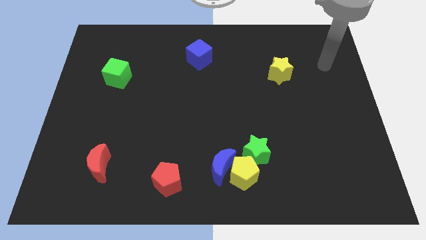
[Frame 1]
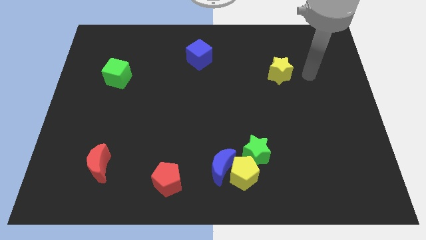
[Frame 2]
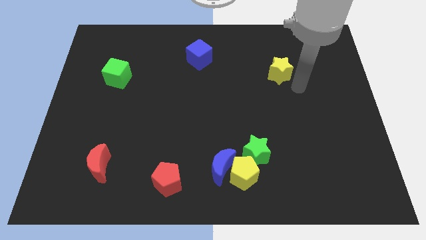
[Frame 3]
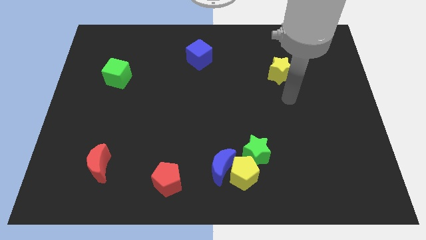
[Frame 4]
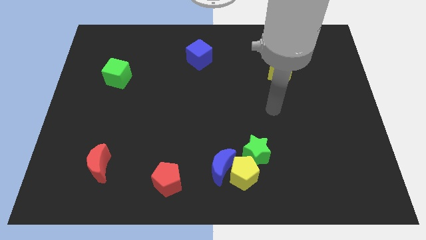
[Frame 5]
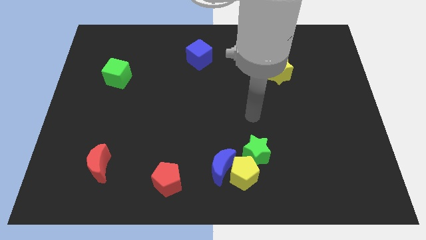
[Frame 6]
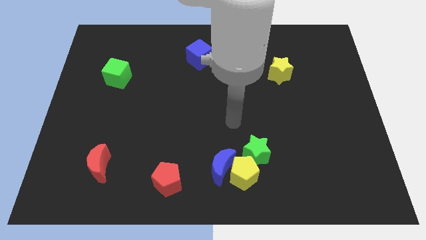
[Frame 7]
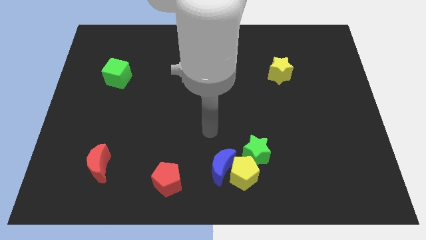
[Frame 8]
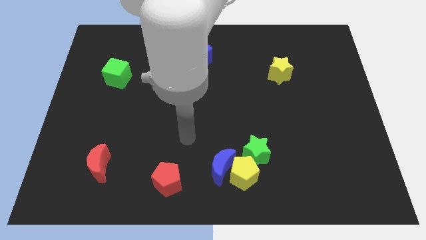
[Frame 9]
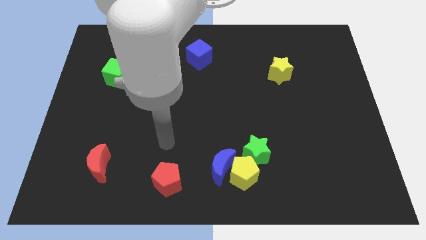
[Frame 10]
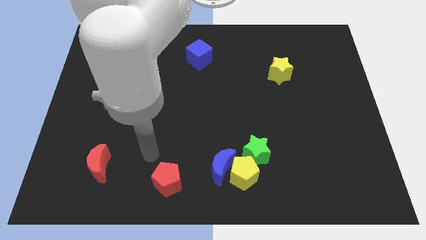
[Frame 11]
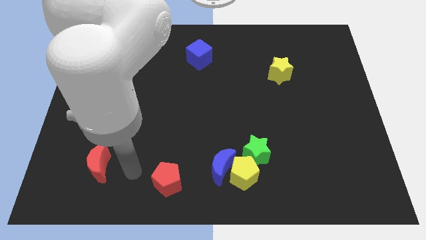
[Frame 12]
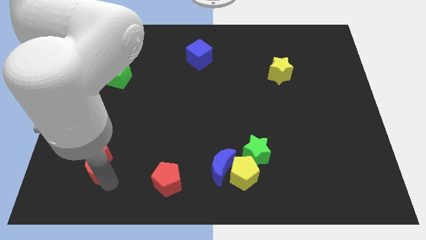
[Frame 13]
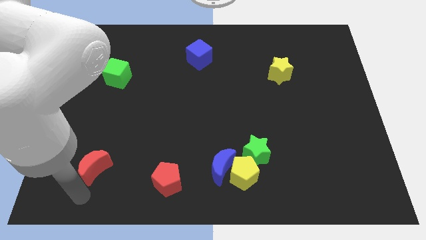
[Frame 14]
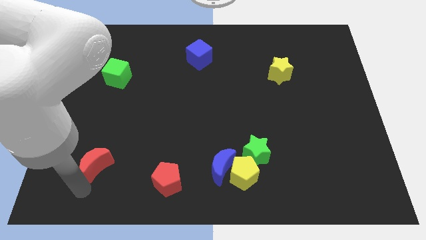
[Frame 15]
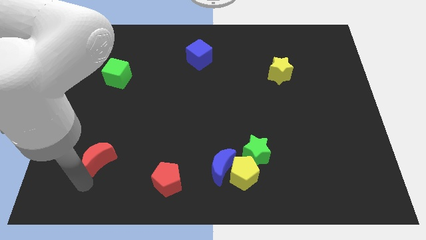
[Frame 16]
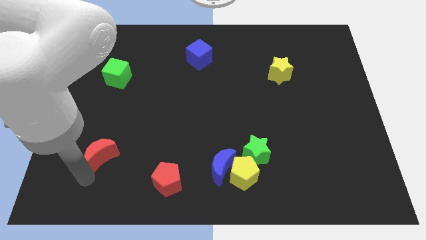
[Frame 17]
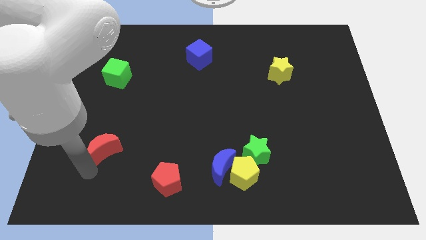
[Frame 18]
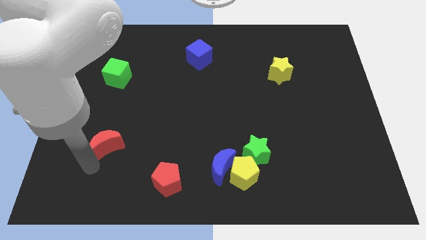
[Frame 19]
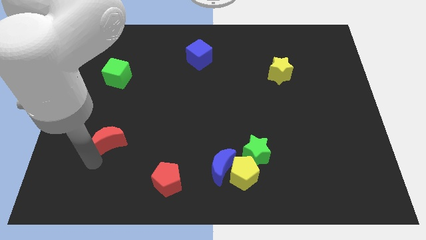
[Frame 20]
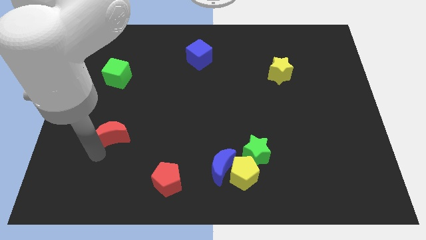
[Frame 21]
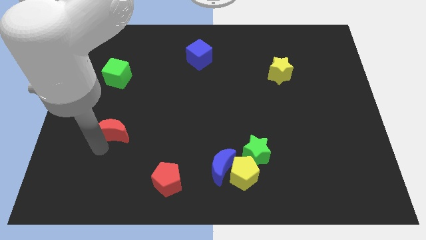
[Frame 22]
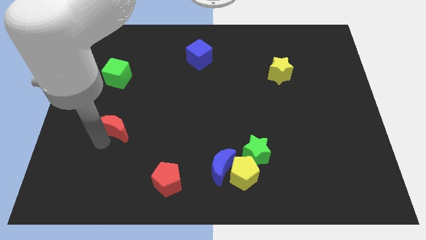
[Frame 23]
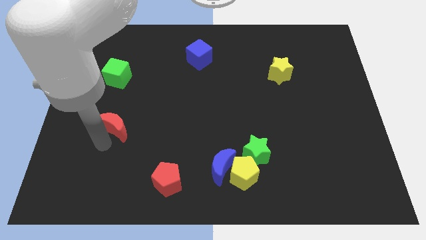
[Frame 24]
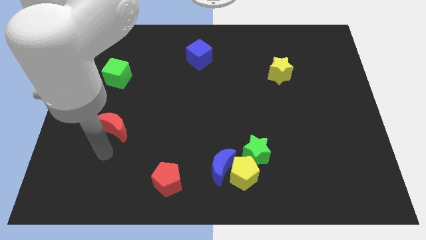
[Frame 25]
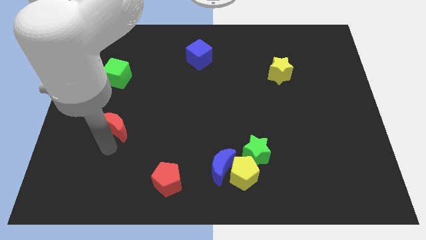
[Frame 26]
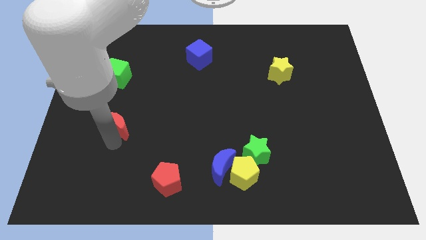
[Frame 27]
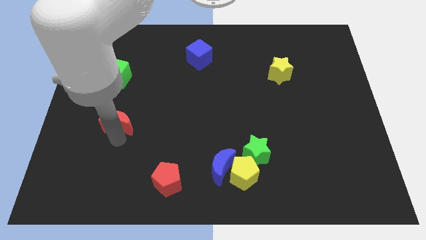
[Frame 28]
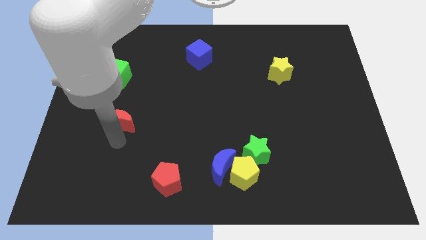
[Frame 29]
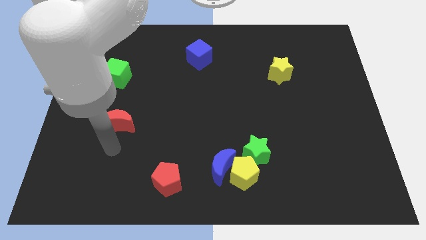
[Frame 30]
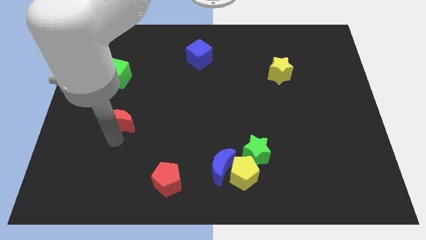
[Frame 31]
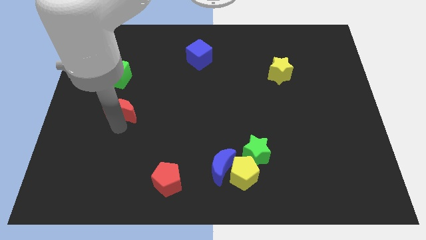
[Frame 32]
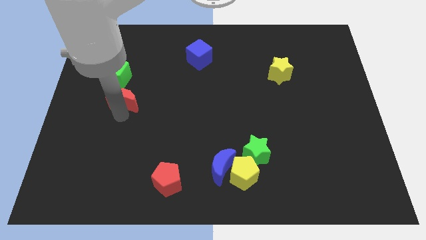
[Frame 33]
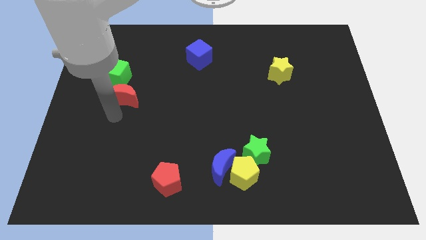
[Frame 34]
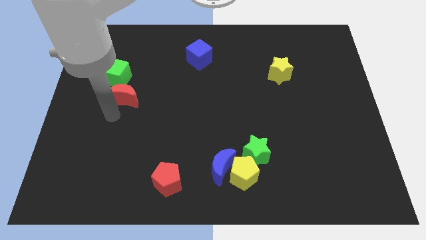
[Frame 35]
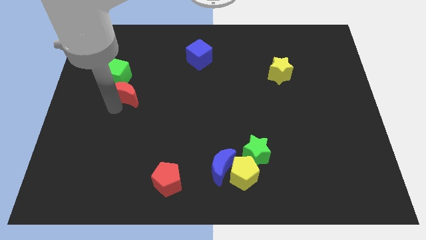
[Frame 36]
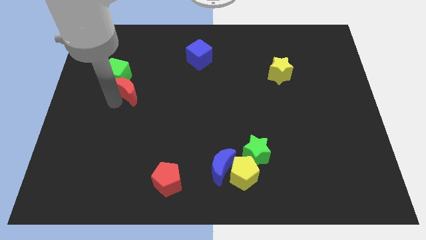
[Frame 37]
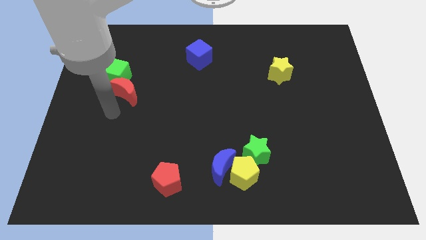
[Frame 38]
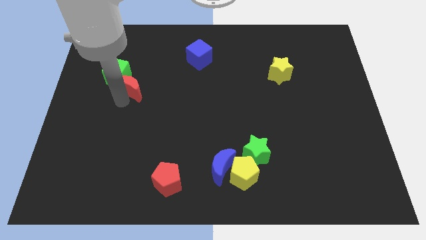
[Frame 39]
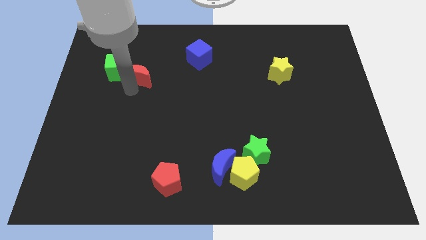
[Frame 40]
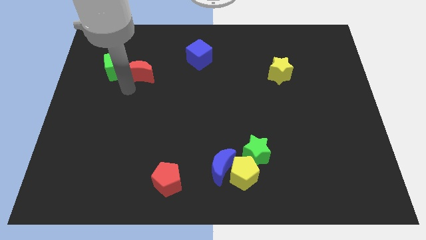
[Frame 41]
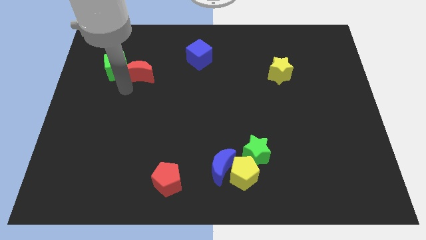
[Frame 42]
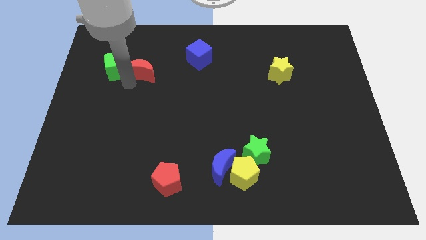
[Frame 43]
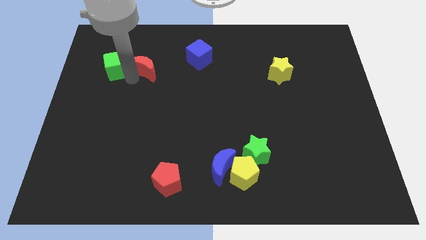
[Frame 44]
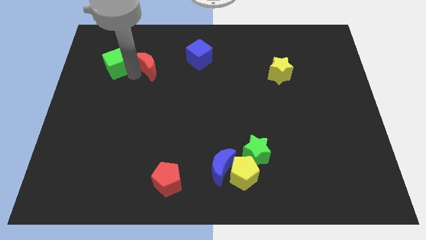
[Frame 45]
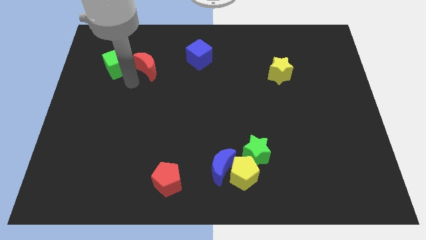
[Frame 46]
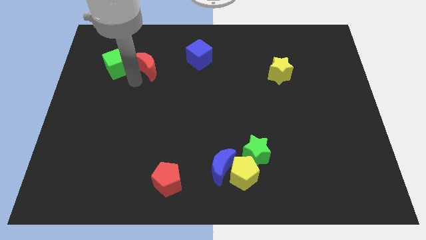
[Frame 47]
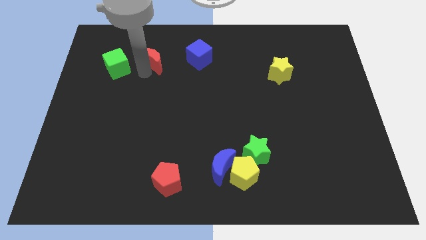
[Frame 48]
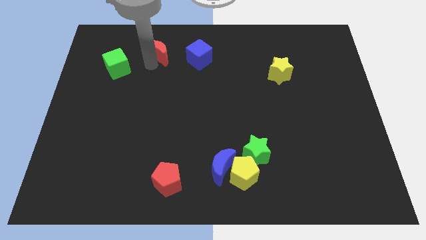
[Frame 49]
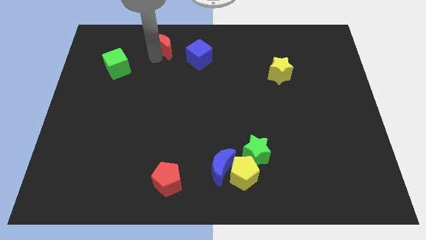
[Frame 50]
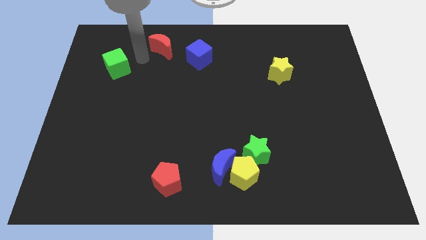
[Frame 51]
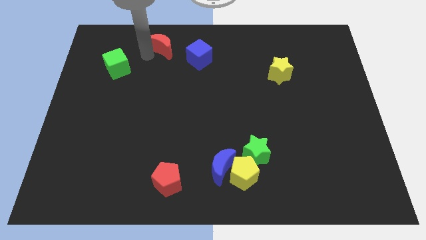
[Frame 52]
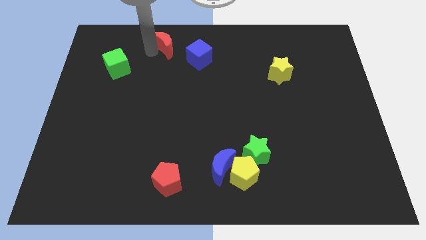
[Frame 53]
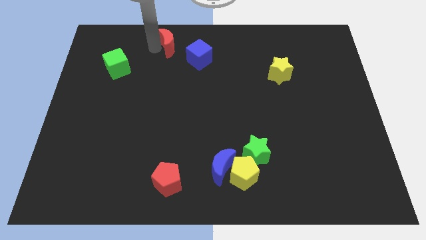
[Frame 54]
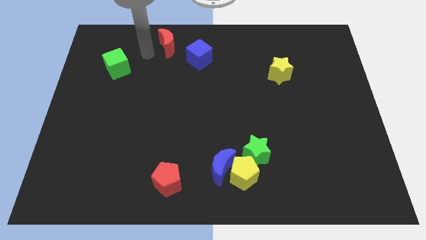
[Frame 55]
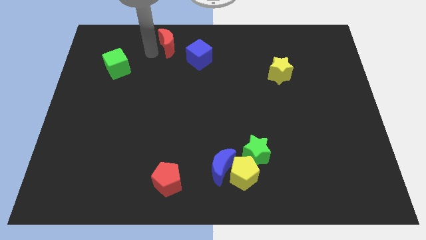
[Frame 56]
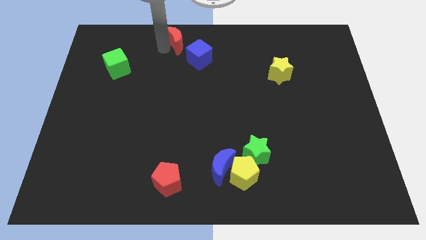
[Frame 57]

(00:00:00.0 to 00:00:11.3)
put the red moon to the top side
